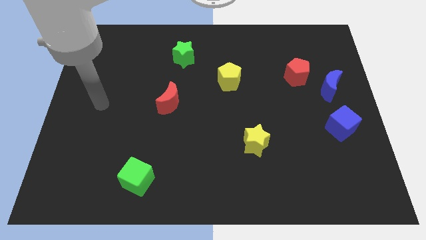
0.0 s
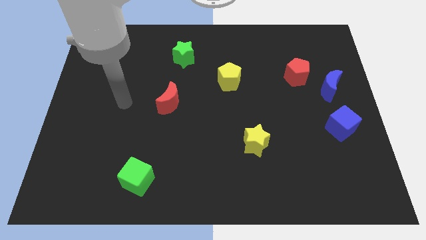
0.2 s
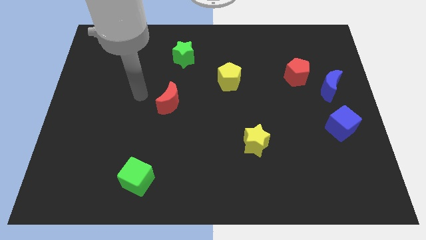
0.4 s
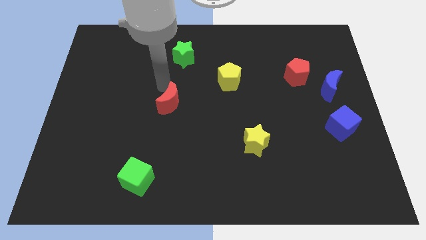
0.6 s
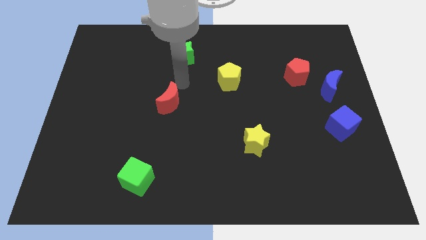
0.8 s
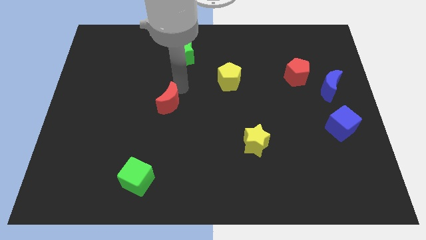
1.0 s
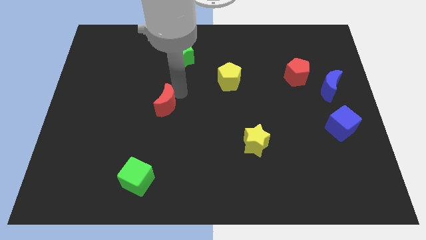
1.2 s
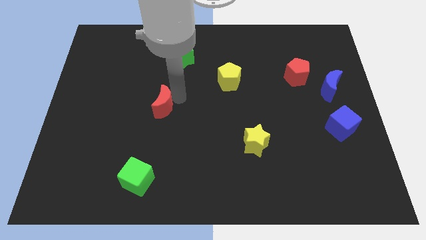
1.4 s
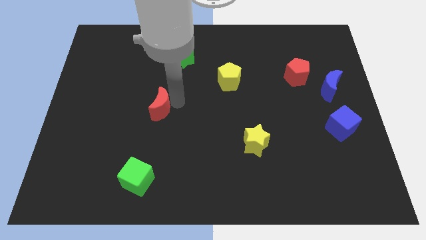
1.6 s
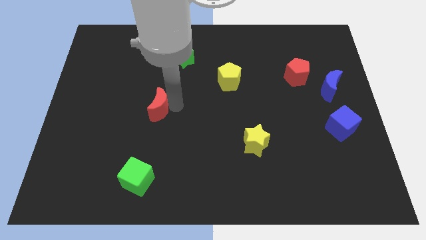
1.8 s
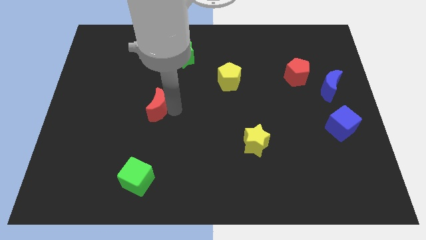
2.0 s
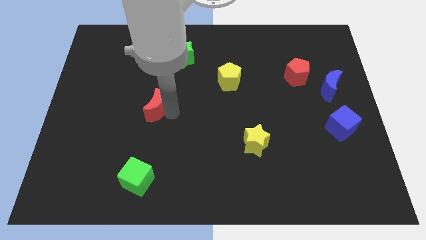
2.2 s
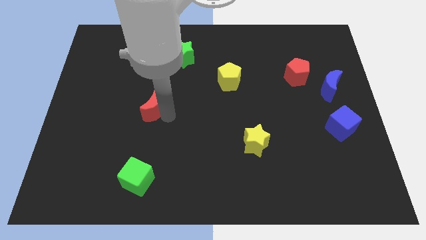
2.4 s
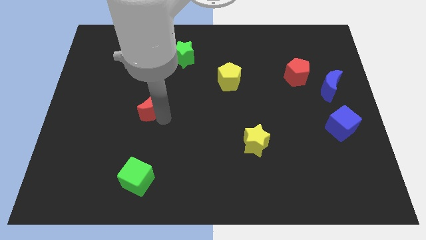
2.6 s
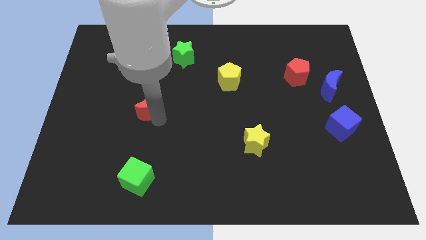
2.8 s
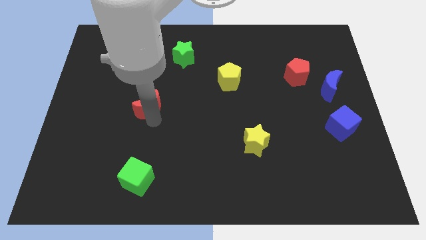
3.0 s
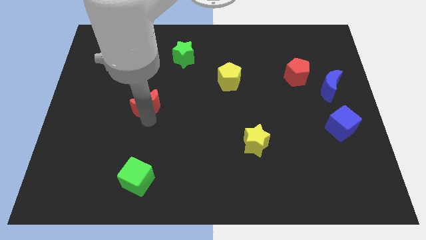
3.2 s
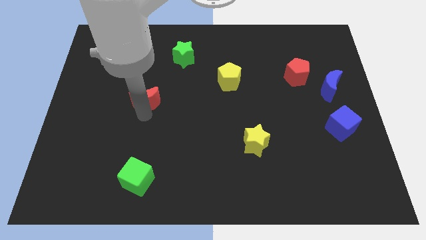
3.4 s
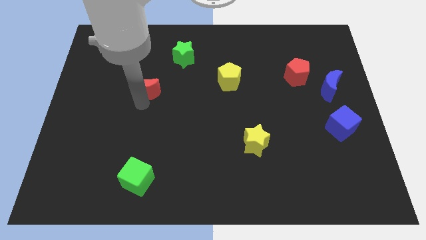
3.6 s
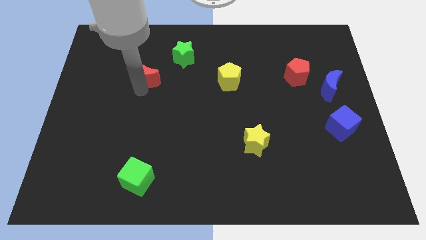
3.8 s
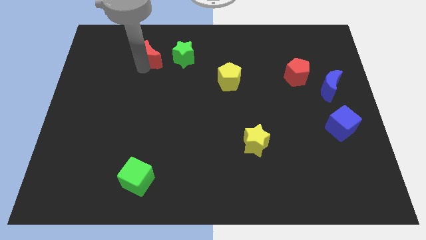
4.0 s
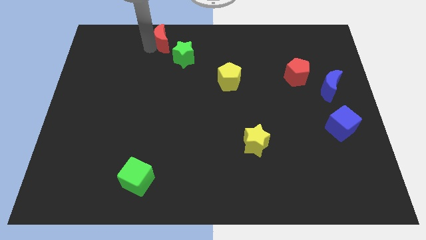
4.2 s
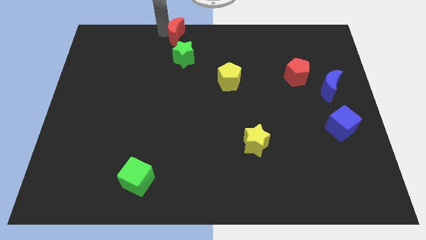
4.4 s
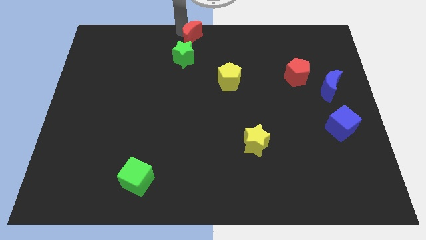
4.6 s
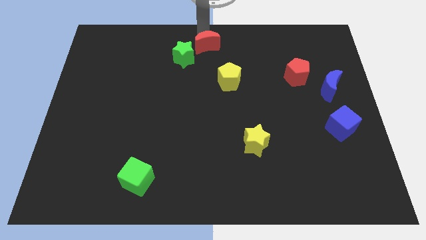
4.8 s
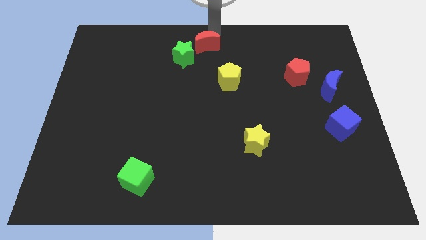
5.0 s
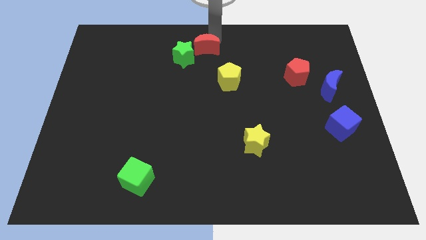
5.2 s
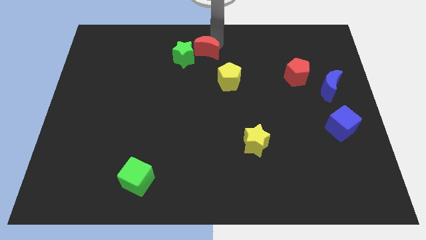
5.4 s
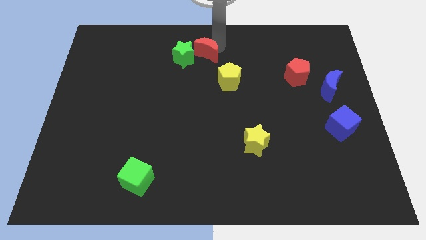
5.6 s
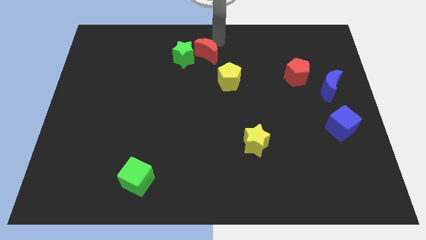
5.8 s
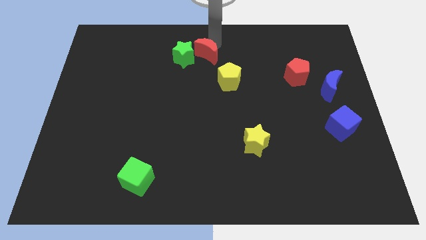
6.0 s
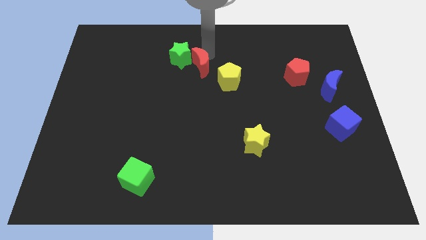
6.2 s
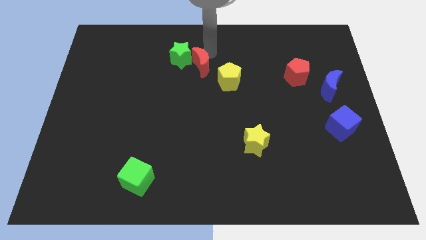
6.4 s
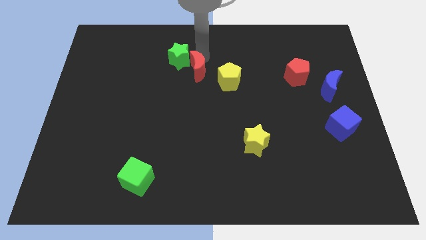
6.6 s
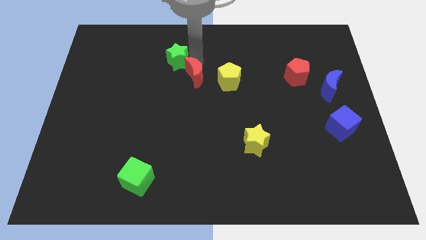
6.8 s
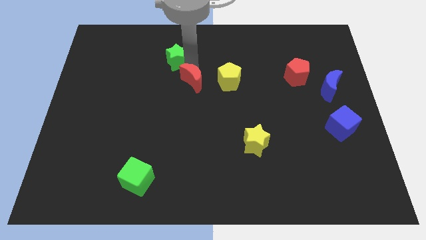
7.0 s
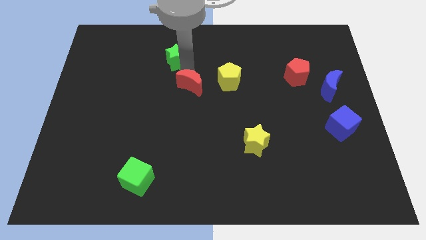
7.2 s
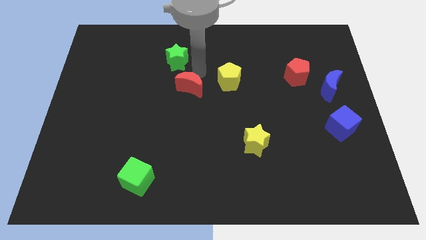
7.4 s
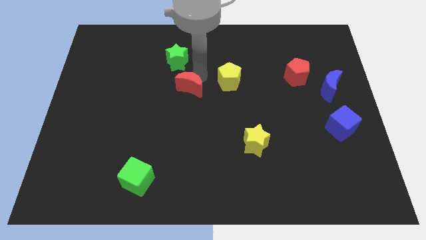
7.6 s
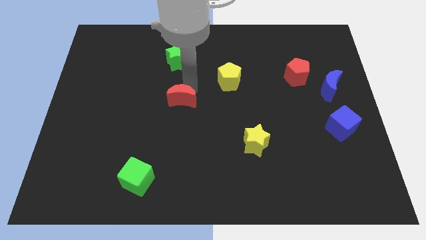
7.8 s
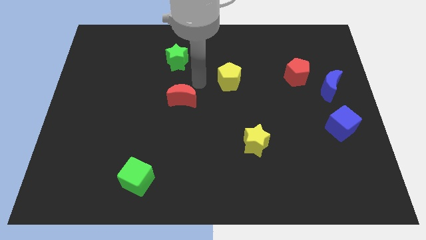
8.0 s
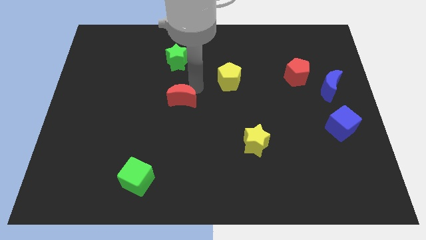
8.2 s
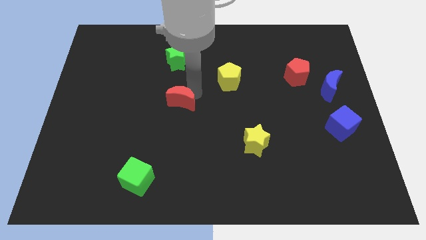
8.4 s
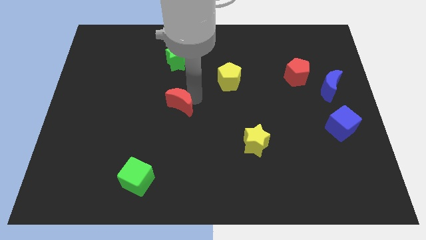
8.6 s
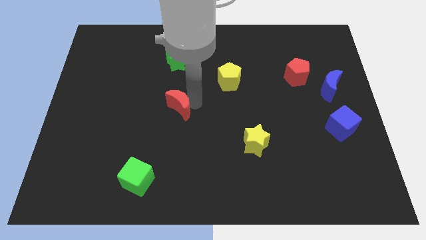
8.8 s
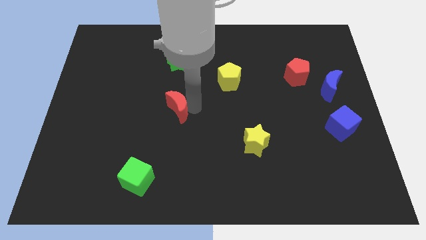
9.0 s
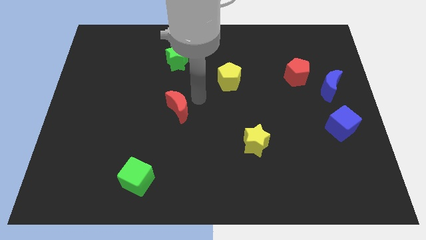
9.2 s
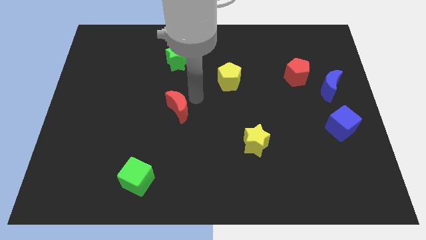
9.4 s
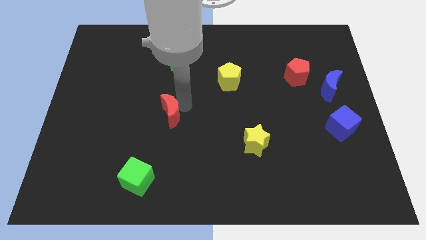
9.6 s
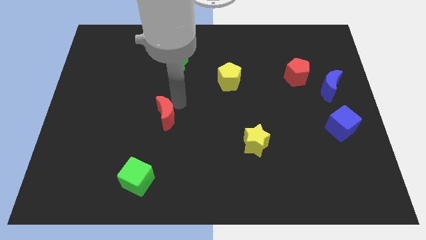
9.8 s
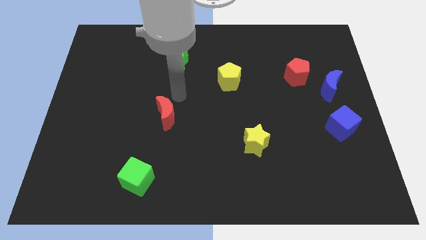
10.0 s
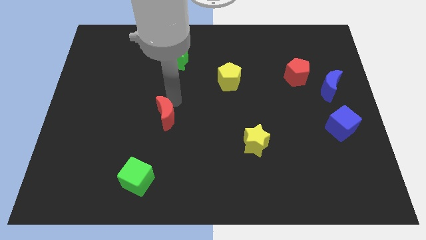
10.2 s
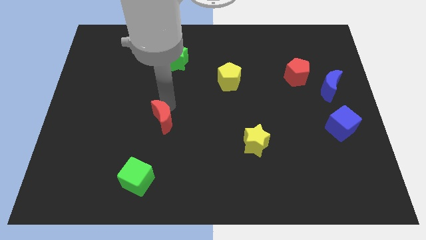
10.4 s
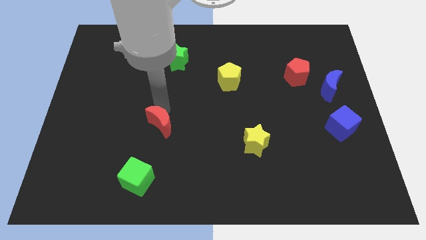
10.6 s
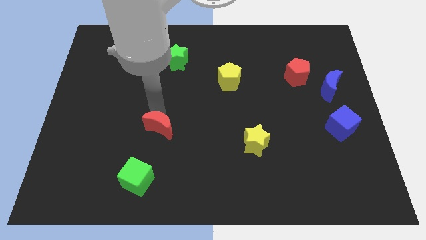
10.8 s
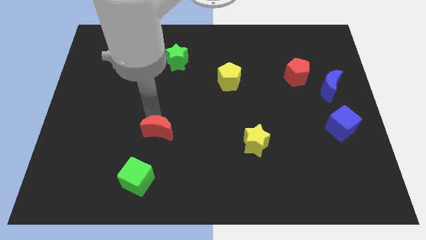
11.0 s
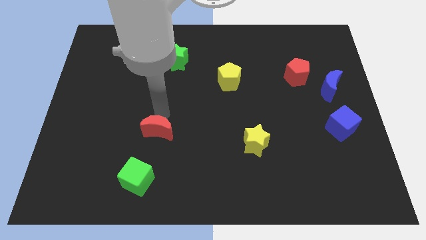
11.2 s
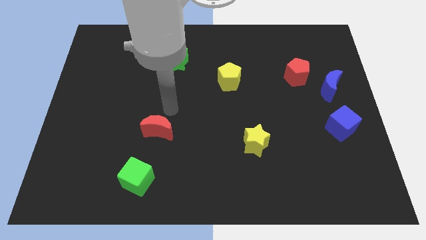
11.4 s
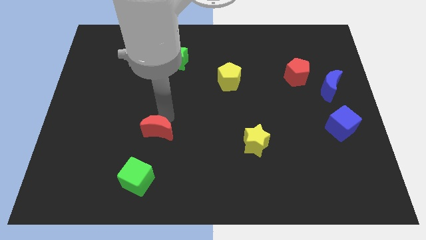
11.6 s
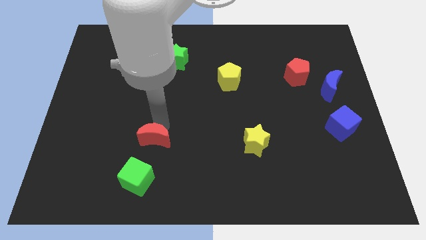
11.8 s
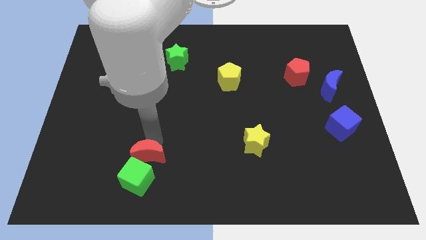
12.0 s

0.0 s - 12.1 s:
slide the red moon towards the green cube

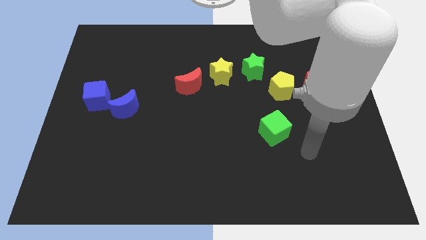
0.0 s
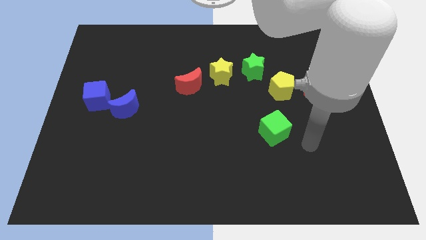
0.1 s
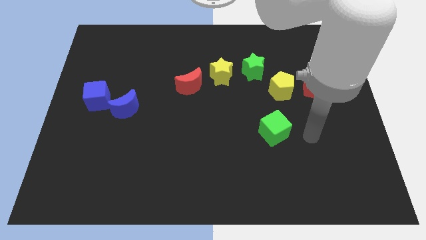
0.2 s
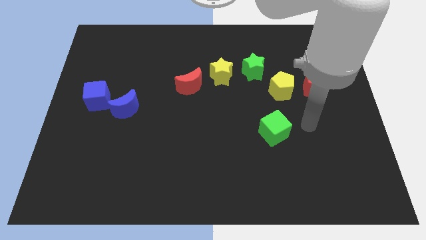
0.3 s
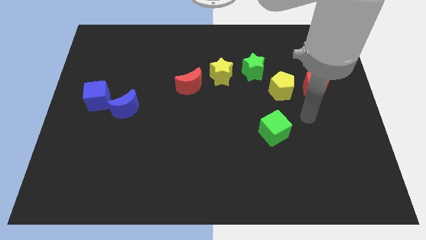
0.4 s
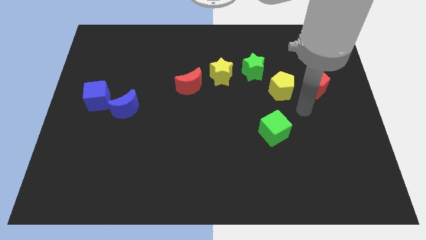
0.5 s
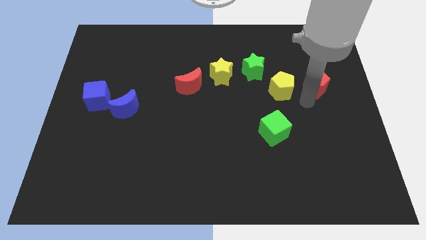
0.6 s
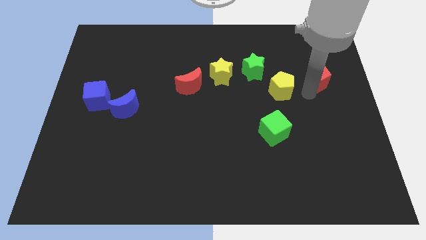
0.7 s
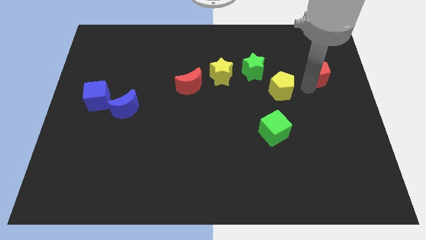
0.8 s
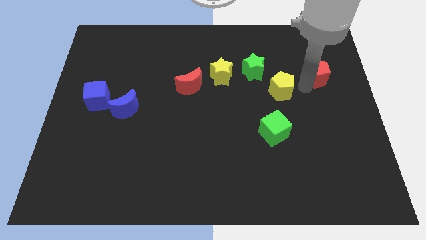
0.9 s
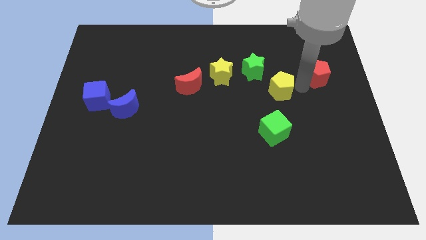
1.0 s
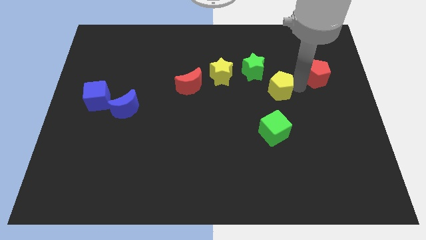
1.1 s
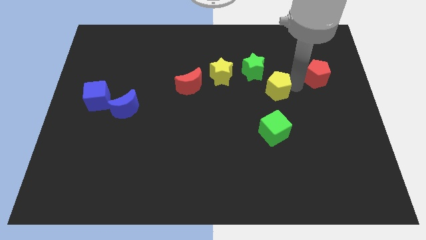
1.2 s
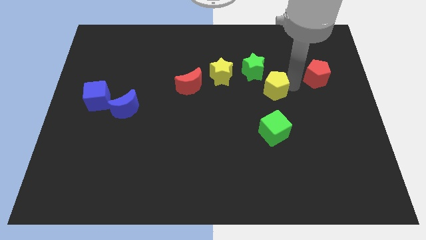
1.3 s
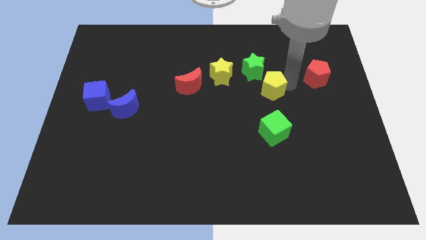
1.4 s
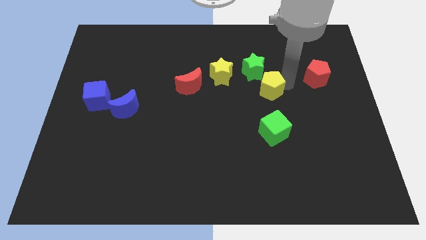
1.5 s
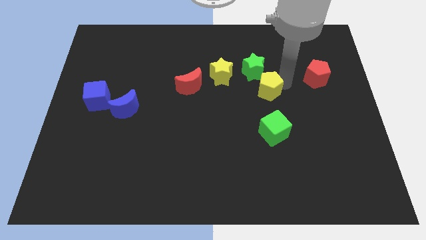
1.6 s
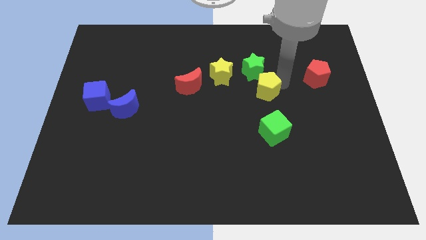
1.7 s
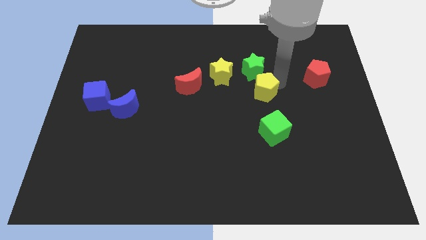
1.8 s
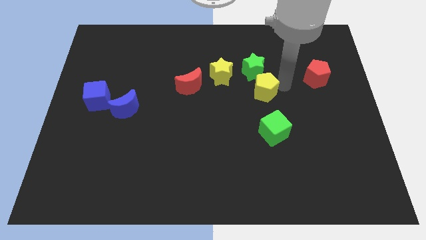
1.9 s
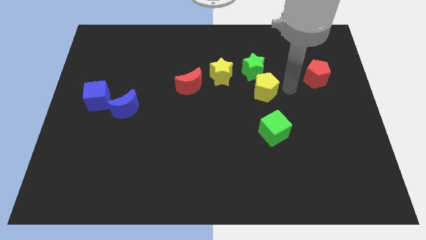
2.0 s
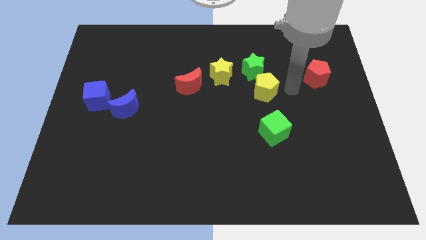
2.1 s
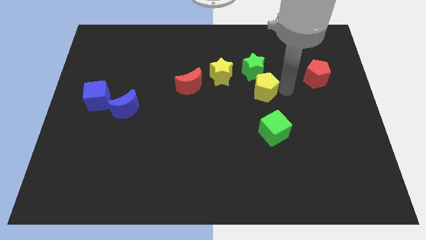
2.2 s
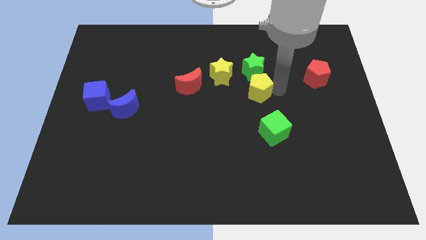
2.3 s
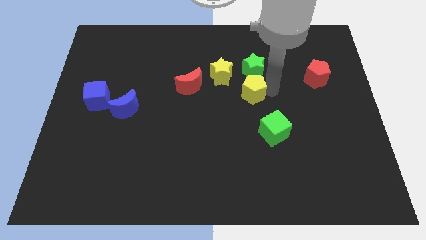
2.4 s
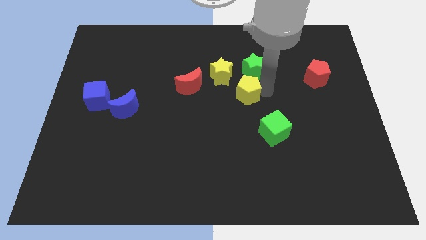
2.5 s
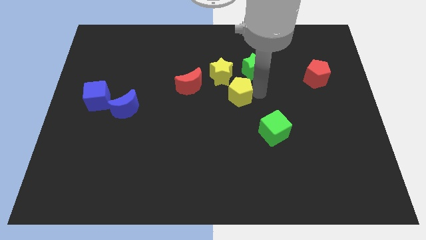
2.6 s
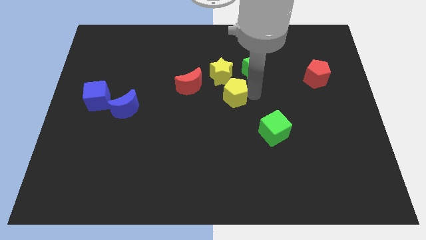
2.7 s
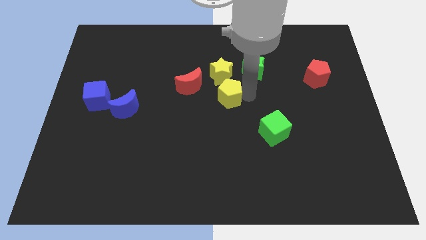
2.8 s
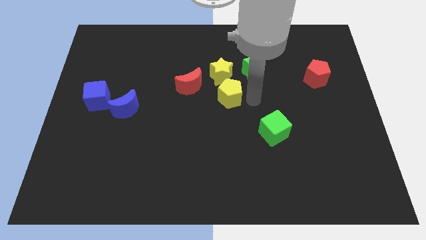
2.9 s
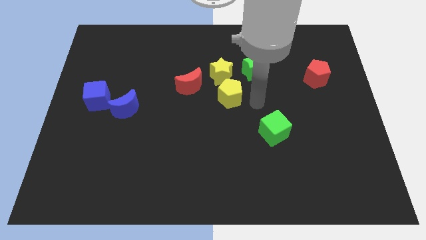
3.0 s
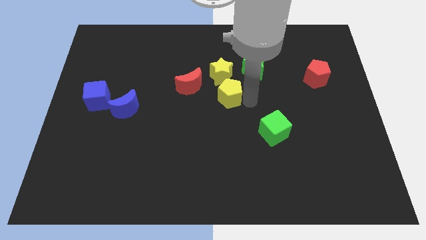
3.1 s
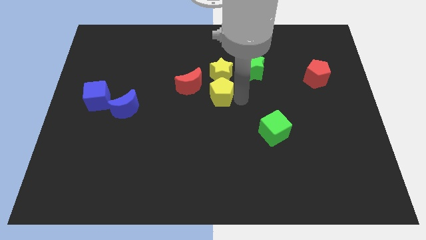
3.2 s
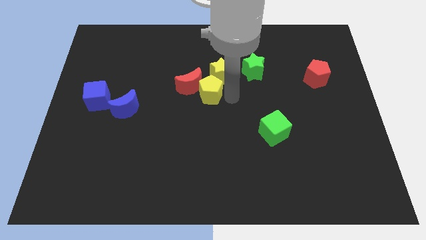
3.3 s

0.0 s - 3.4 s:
move the yellow pentagon to the red moon
